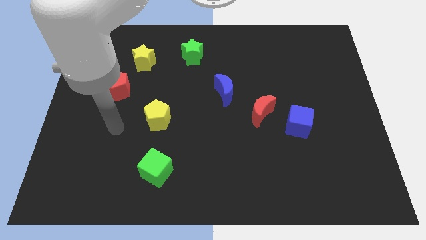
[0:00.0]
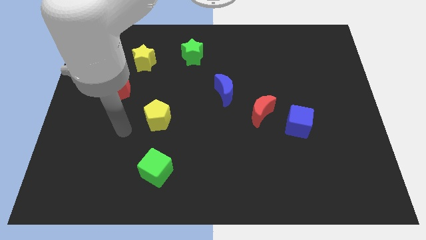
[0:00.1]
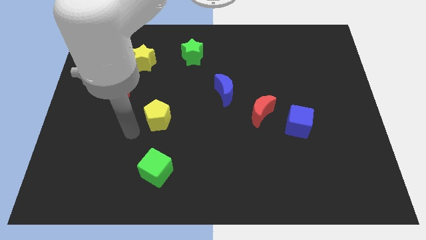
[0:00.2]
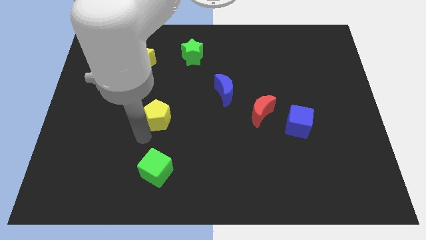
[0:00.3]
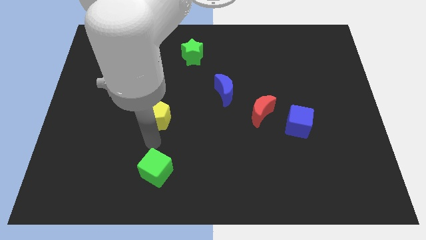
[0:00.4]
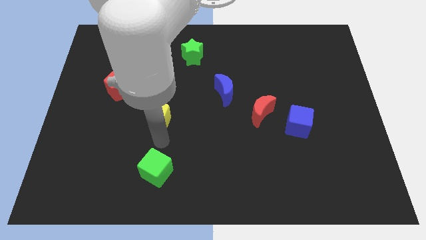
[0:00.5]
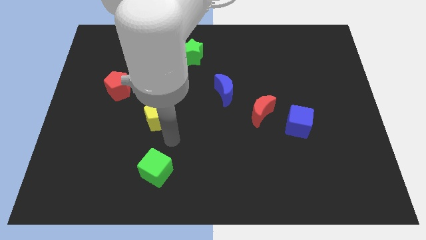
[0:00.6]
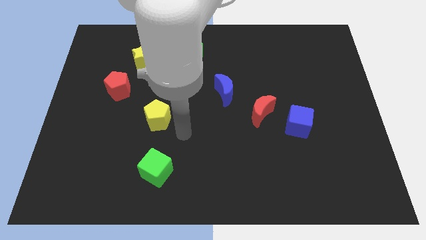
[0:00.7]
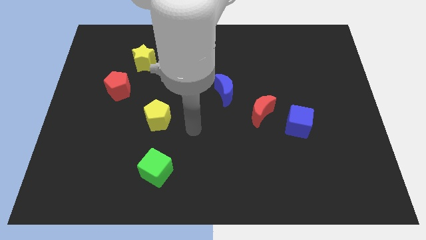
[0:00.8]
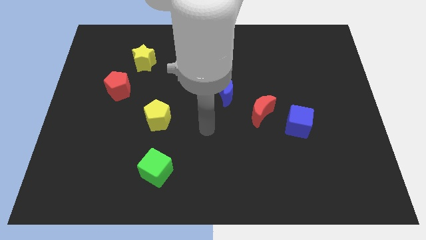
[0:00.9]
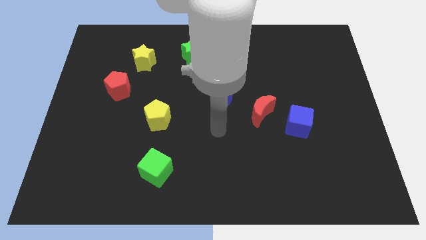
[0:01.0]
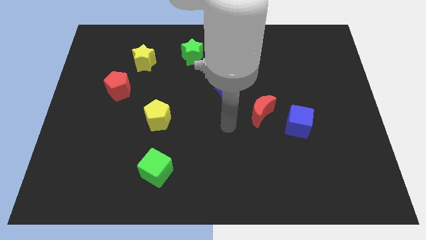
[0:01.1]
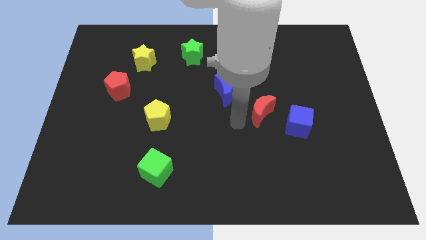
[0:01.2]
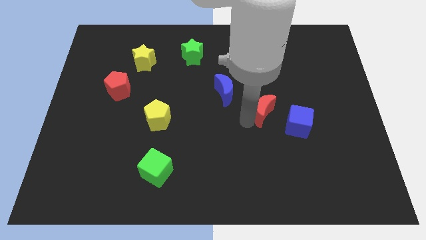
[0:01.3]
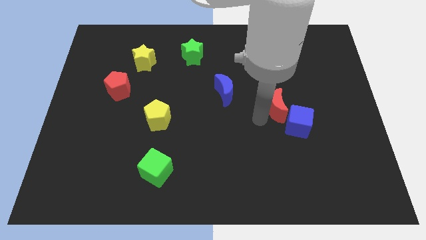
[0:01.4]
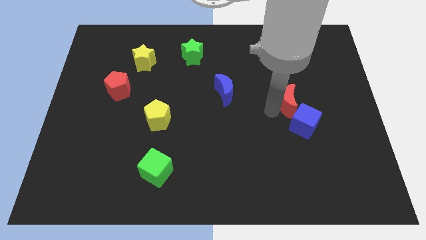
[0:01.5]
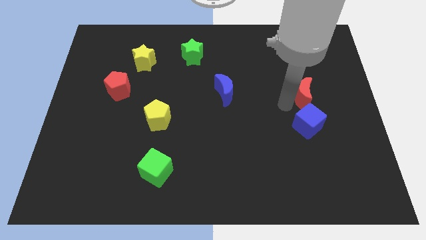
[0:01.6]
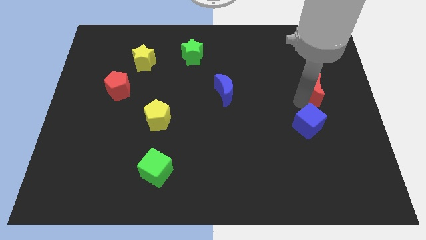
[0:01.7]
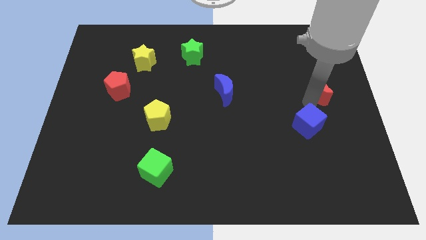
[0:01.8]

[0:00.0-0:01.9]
pull the blue cube apart from the red moon

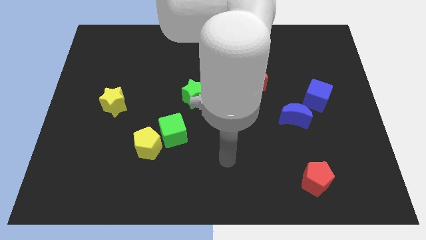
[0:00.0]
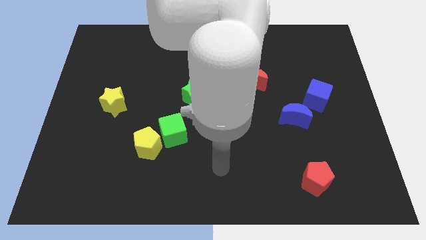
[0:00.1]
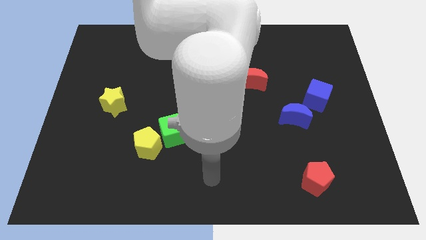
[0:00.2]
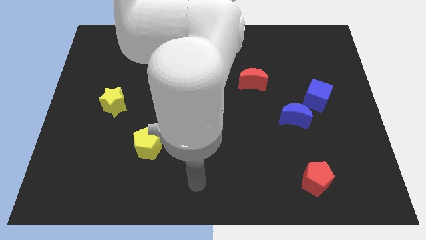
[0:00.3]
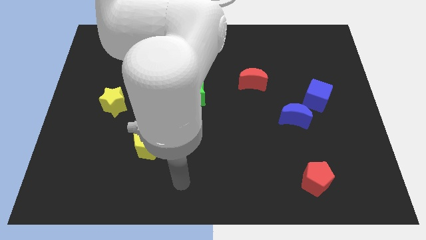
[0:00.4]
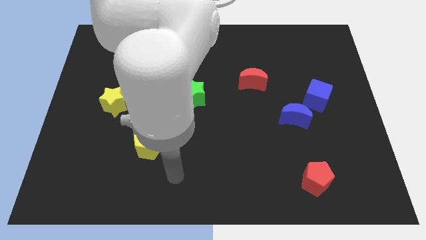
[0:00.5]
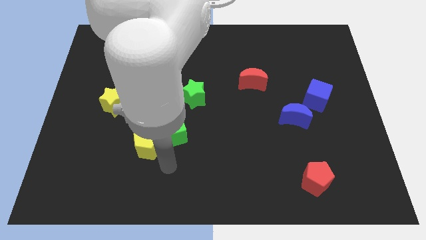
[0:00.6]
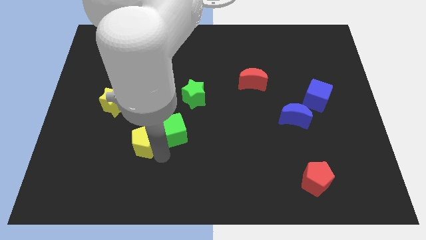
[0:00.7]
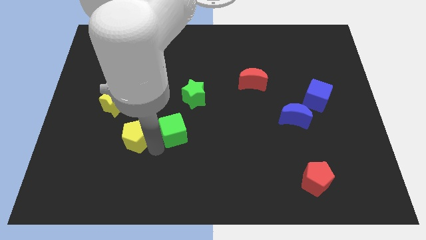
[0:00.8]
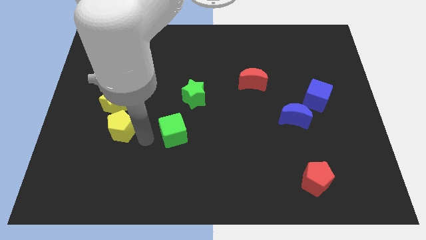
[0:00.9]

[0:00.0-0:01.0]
pull the green cube apart from the yellow pentagon

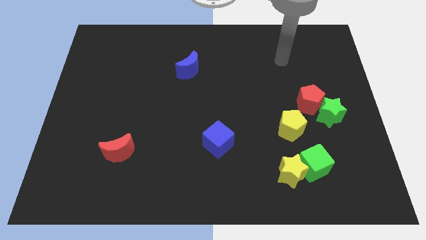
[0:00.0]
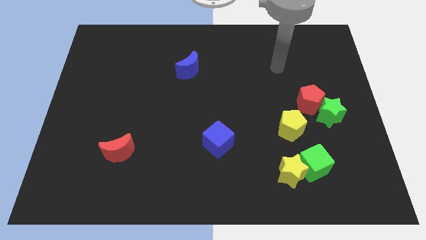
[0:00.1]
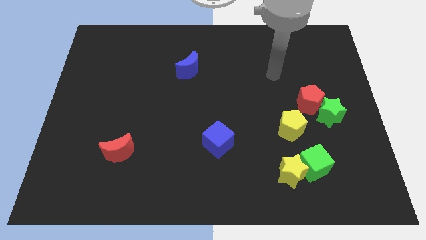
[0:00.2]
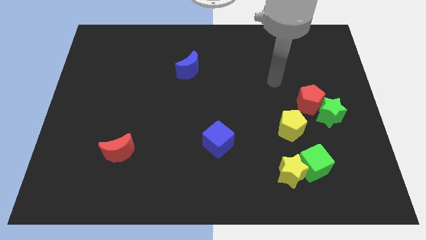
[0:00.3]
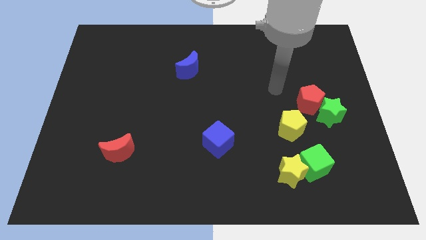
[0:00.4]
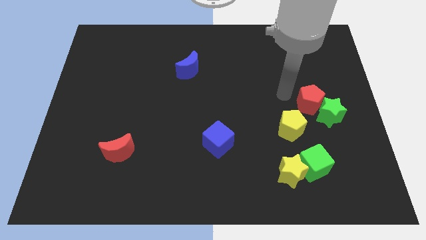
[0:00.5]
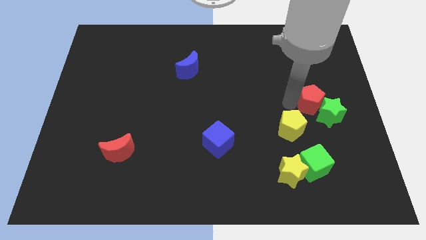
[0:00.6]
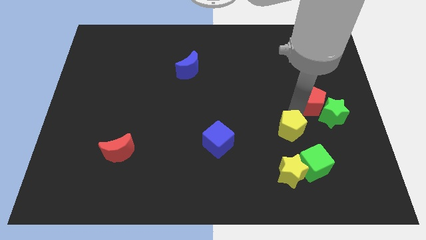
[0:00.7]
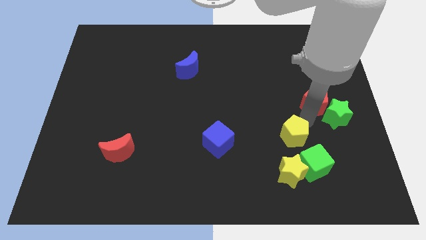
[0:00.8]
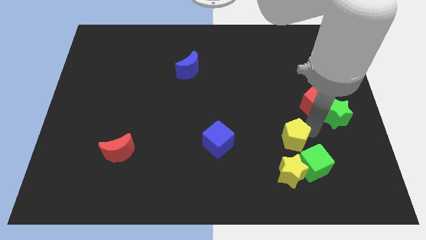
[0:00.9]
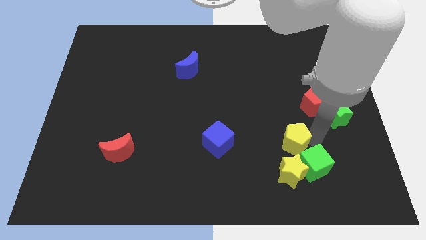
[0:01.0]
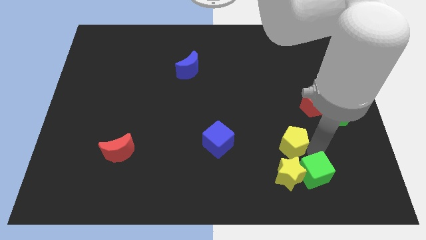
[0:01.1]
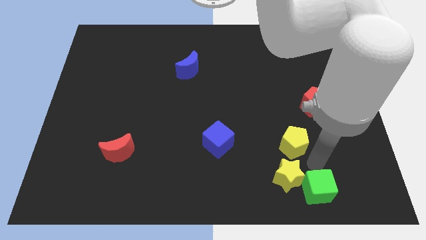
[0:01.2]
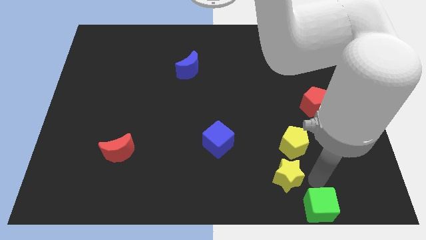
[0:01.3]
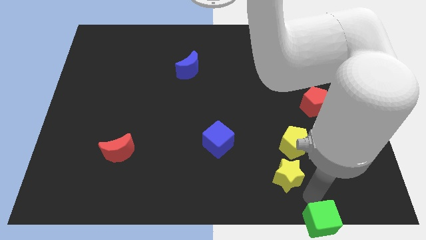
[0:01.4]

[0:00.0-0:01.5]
separate the yellow star from the green cube

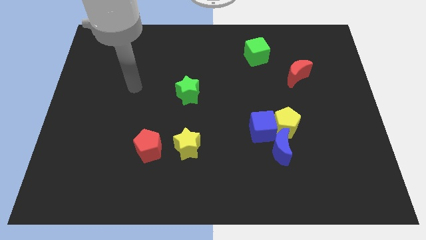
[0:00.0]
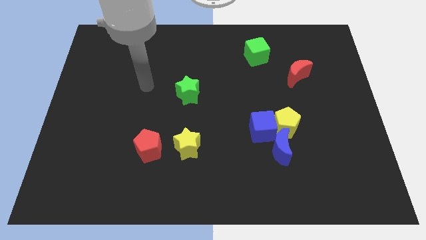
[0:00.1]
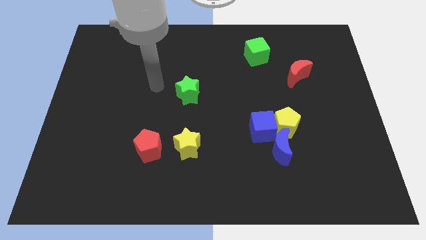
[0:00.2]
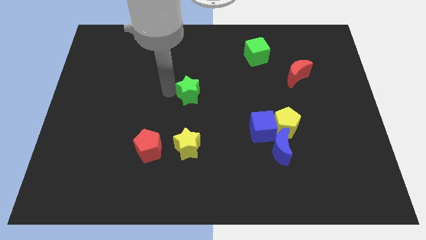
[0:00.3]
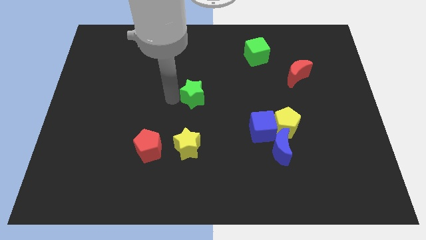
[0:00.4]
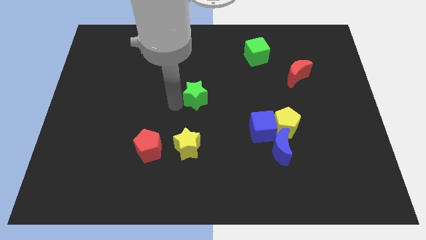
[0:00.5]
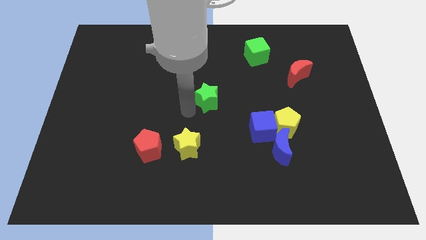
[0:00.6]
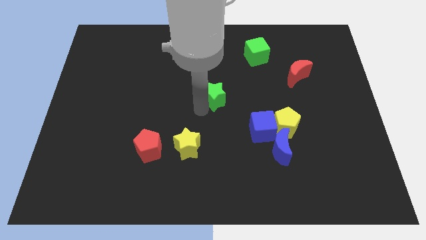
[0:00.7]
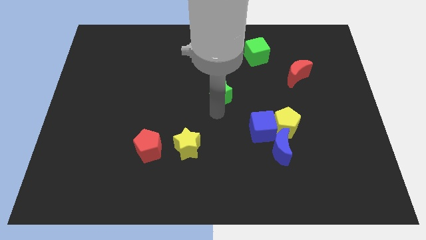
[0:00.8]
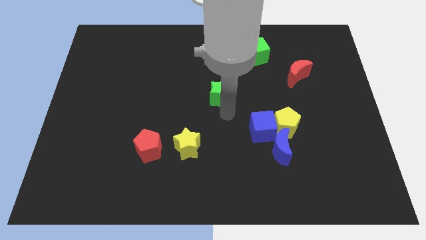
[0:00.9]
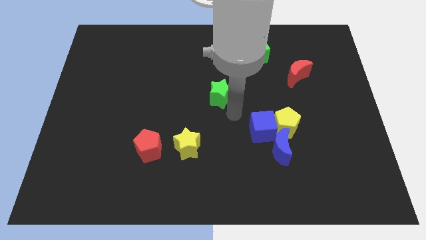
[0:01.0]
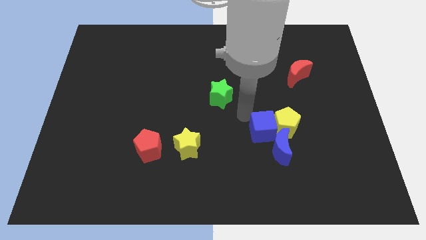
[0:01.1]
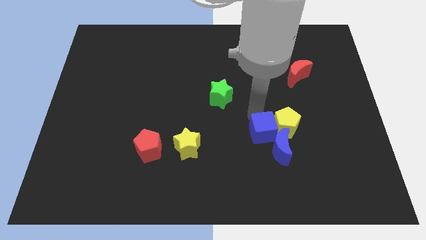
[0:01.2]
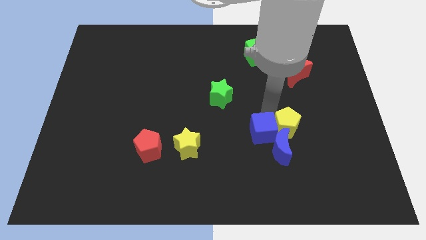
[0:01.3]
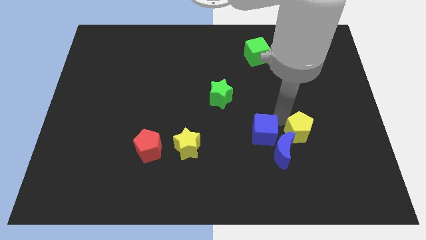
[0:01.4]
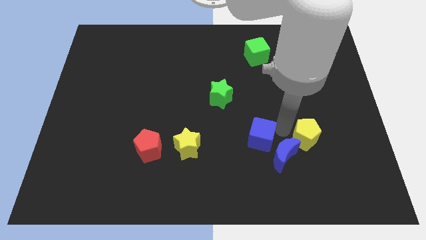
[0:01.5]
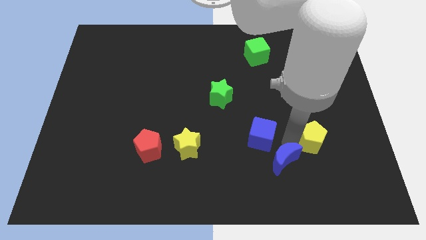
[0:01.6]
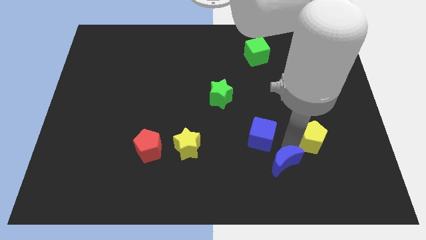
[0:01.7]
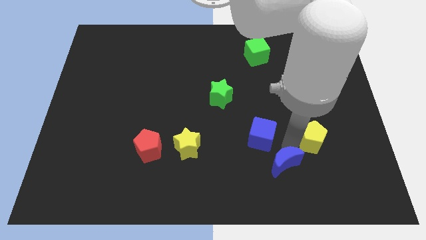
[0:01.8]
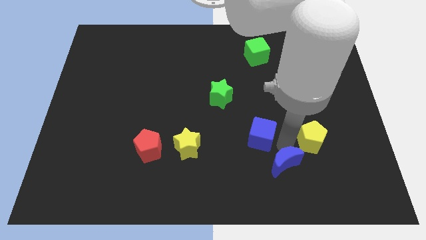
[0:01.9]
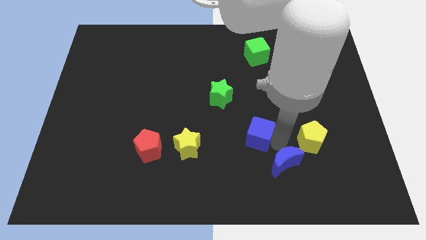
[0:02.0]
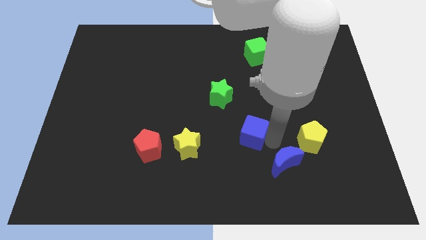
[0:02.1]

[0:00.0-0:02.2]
move the blue cube away from the yellow pentagon and blue moon

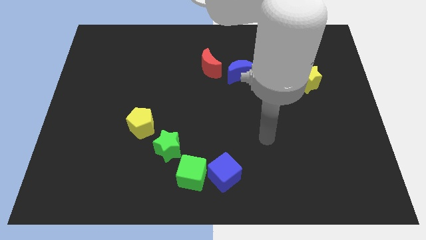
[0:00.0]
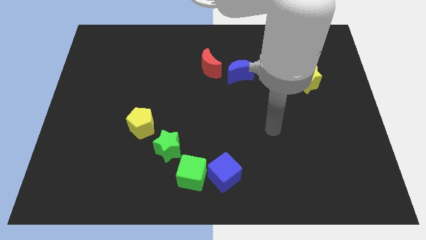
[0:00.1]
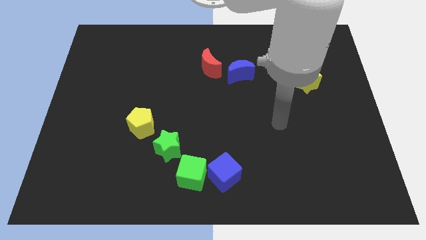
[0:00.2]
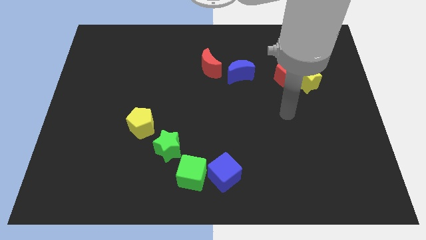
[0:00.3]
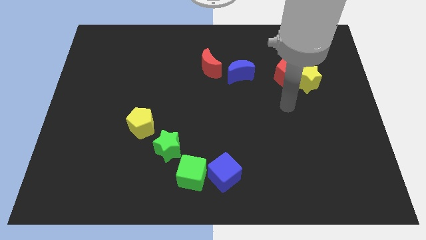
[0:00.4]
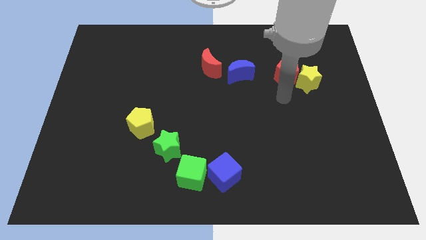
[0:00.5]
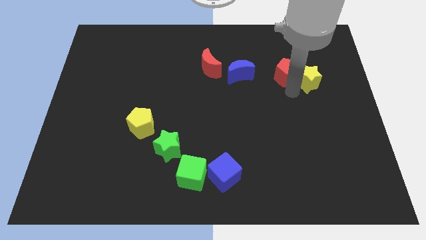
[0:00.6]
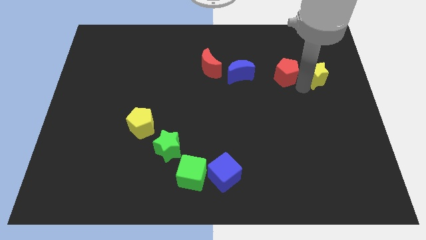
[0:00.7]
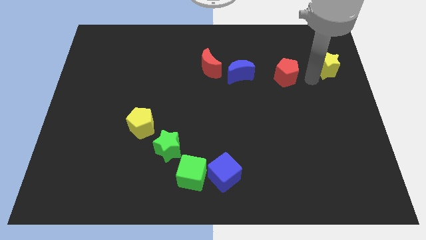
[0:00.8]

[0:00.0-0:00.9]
move the red pentagon away from the yellow star

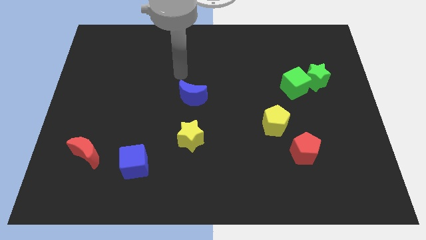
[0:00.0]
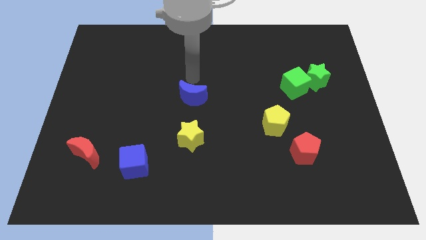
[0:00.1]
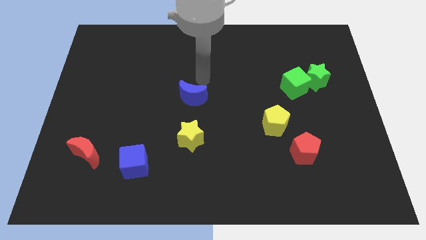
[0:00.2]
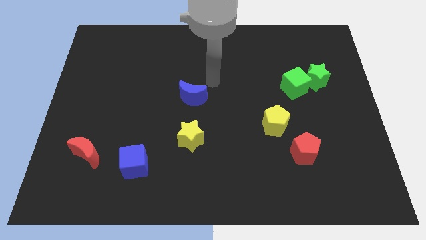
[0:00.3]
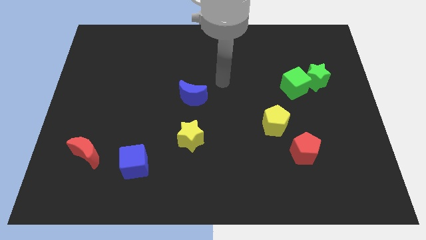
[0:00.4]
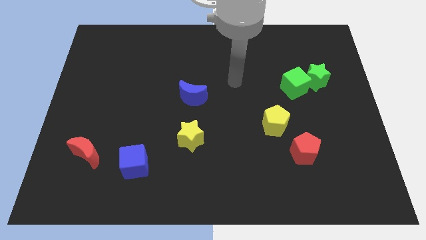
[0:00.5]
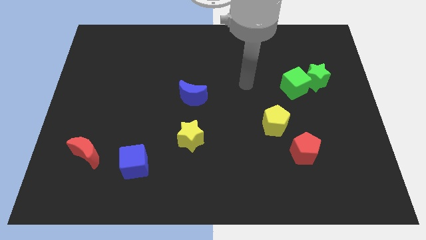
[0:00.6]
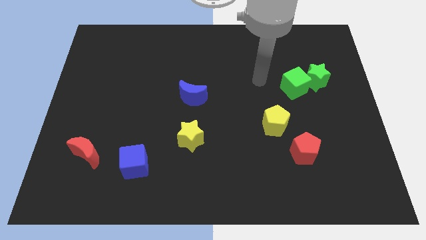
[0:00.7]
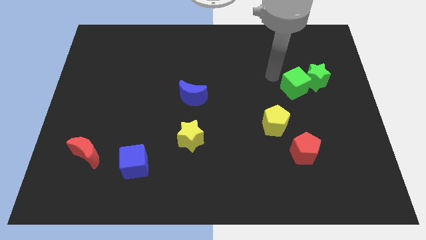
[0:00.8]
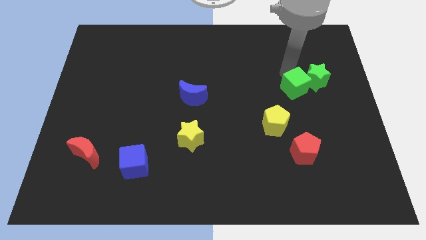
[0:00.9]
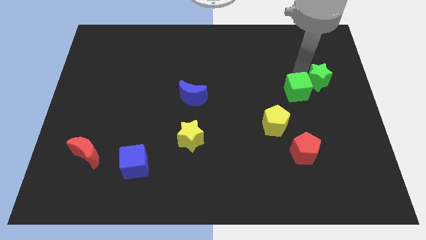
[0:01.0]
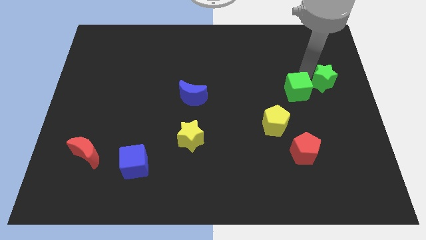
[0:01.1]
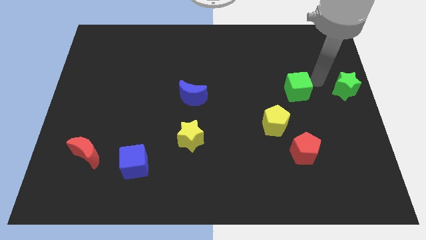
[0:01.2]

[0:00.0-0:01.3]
separate the green cube from the green star

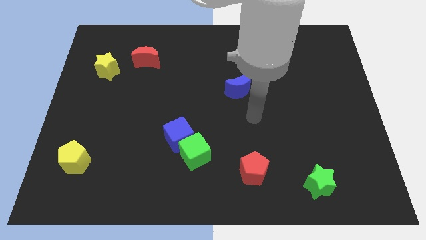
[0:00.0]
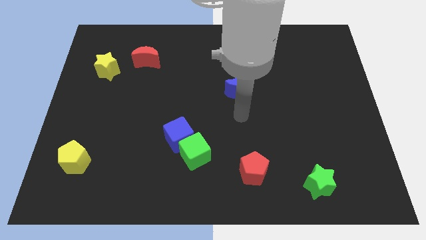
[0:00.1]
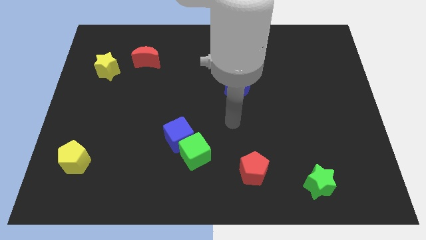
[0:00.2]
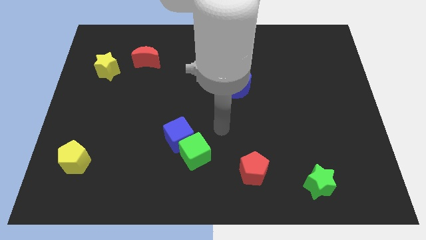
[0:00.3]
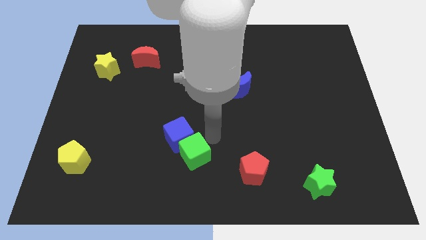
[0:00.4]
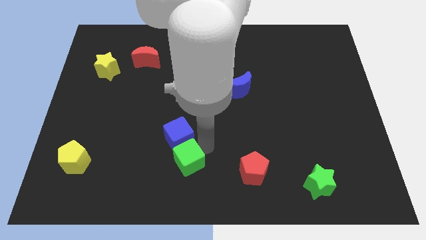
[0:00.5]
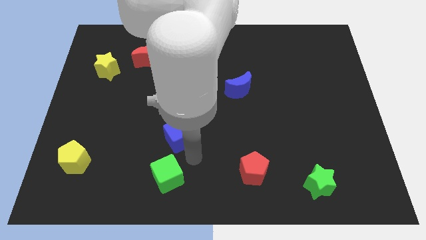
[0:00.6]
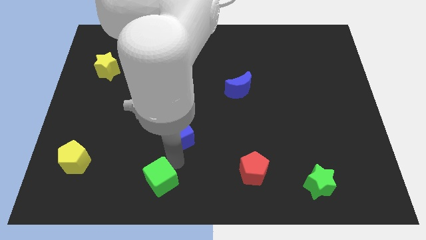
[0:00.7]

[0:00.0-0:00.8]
pull the blue cube apart from the green cube
